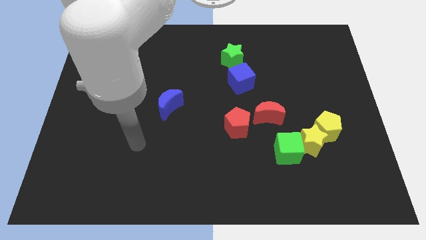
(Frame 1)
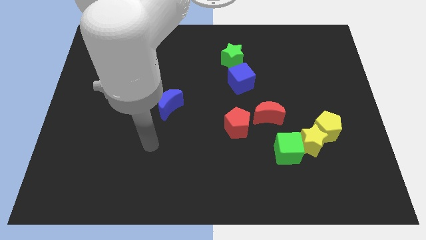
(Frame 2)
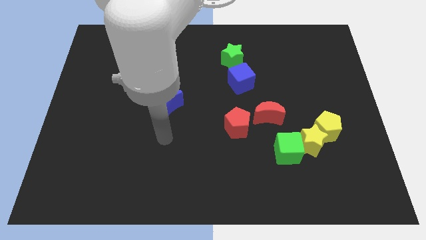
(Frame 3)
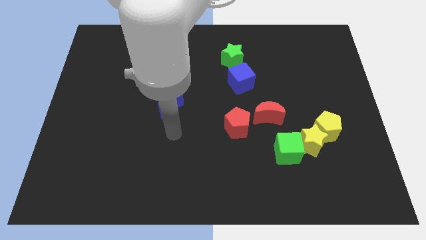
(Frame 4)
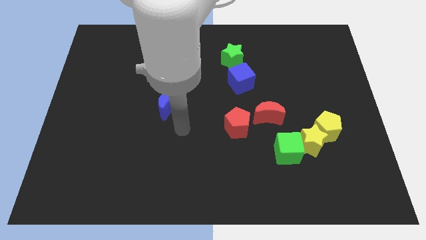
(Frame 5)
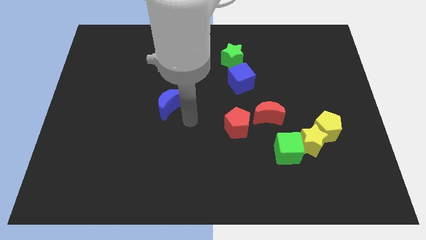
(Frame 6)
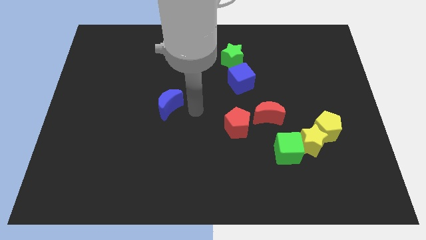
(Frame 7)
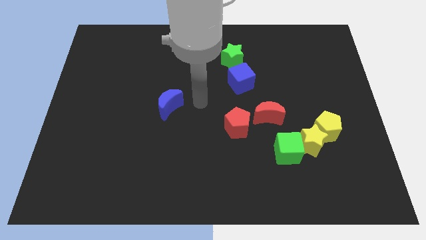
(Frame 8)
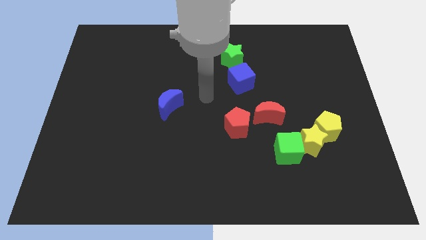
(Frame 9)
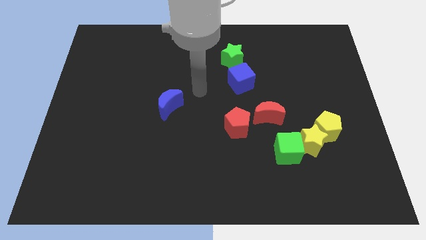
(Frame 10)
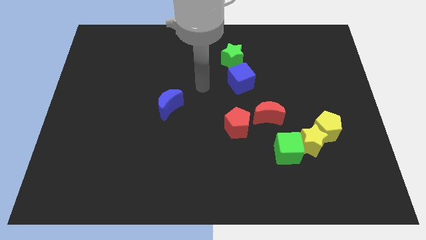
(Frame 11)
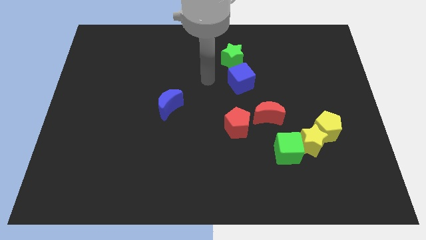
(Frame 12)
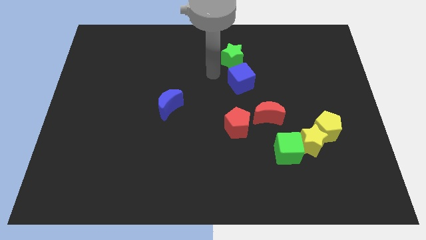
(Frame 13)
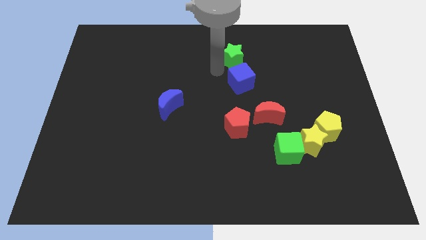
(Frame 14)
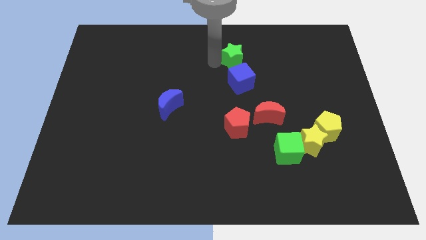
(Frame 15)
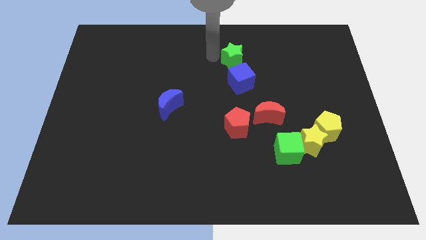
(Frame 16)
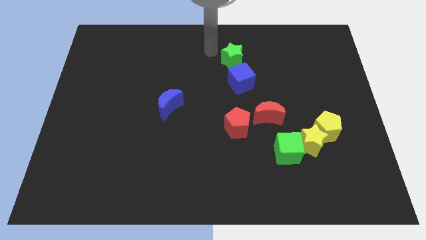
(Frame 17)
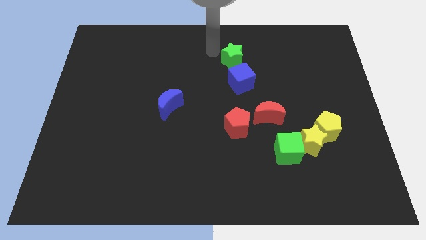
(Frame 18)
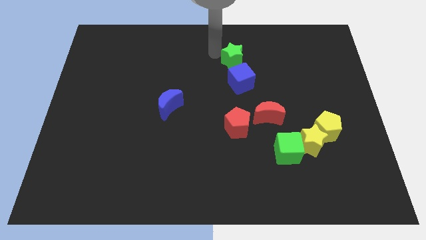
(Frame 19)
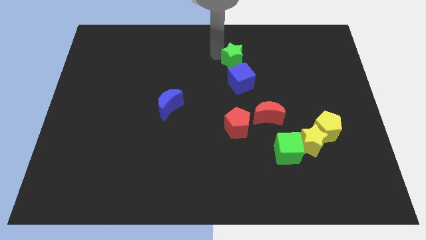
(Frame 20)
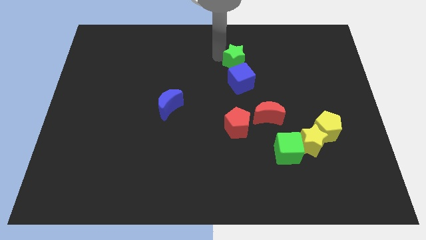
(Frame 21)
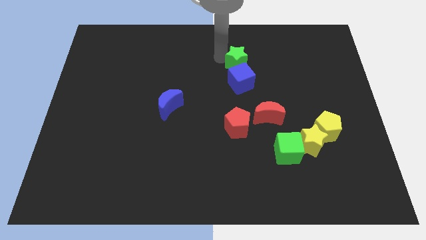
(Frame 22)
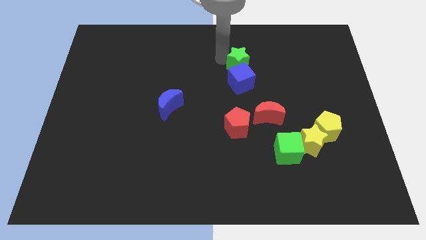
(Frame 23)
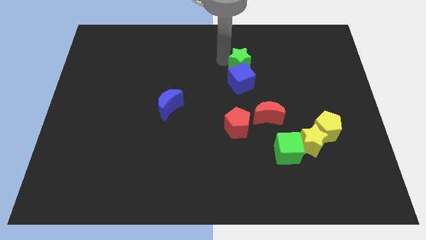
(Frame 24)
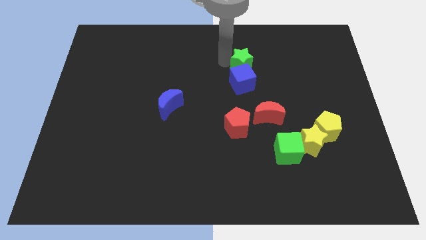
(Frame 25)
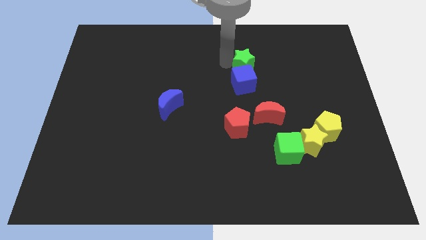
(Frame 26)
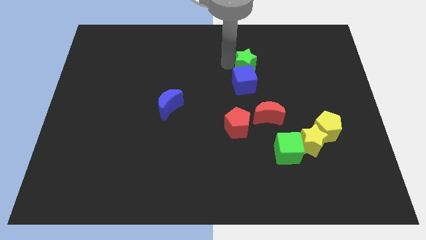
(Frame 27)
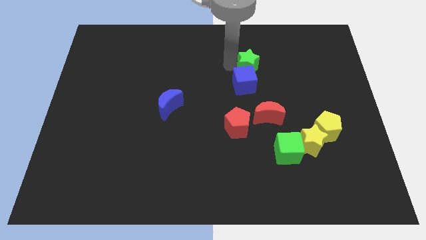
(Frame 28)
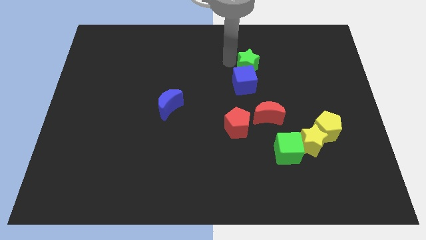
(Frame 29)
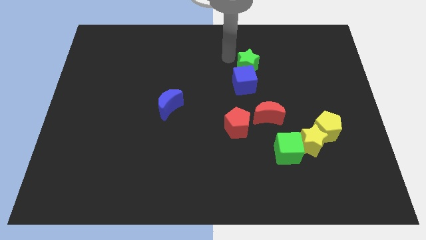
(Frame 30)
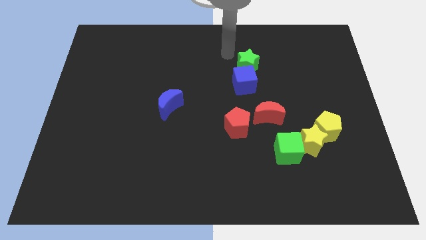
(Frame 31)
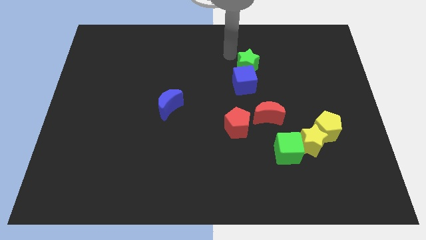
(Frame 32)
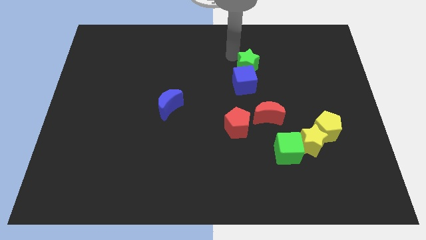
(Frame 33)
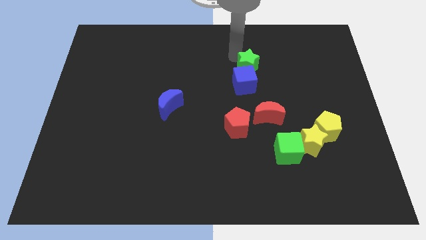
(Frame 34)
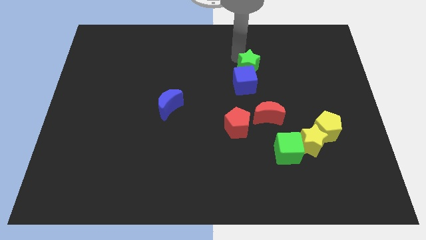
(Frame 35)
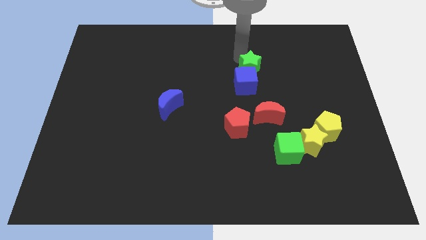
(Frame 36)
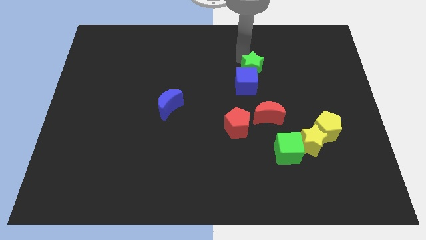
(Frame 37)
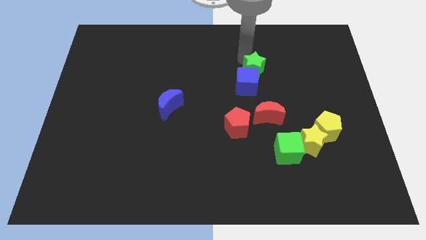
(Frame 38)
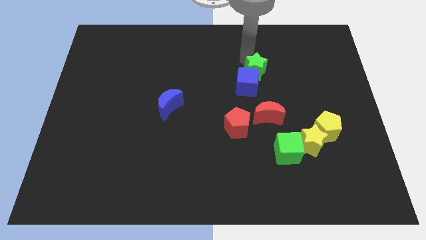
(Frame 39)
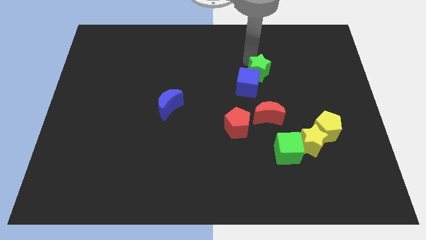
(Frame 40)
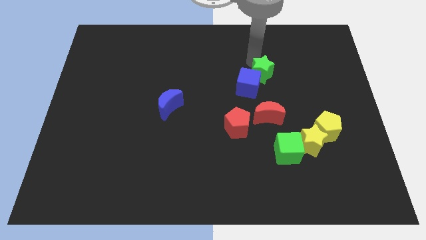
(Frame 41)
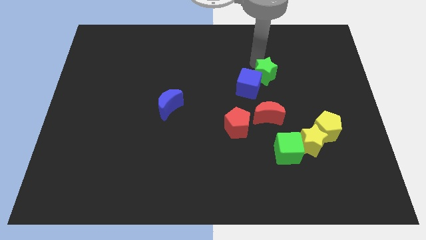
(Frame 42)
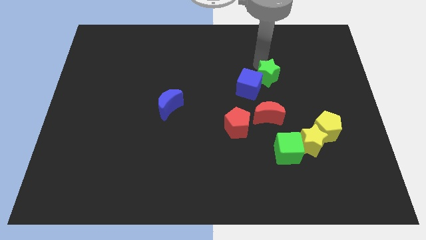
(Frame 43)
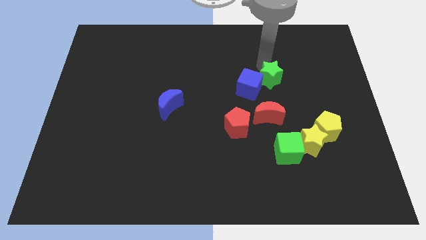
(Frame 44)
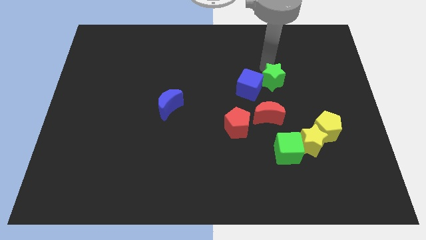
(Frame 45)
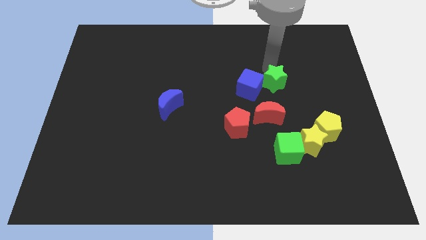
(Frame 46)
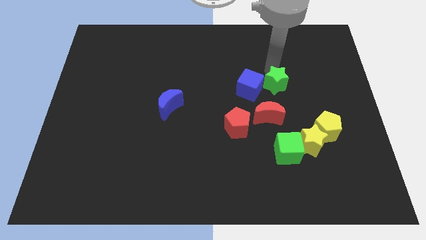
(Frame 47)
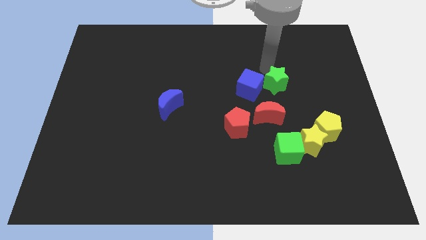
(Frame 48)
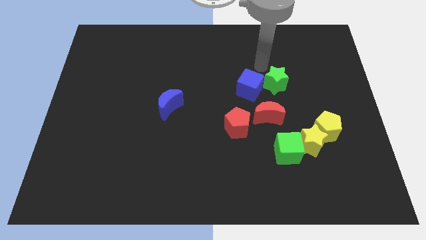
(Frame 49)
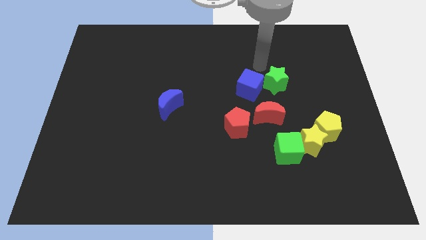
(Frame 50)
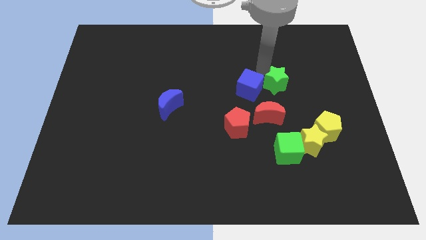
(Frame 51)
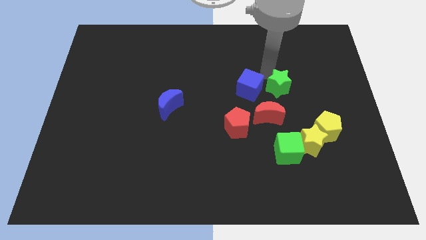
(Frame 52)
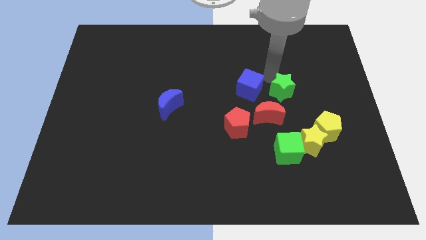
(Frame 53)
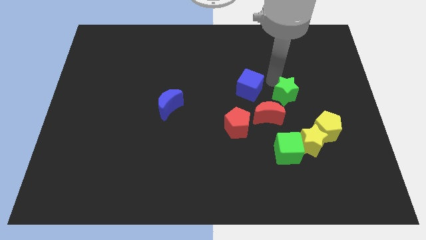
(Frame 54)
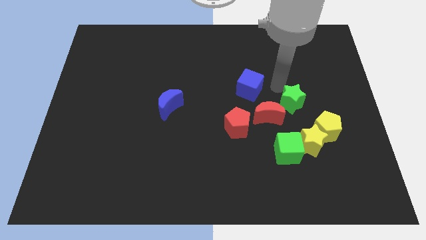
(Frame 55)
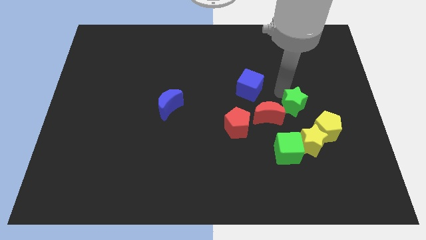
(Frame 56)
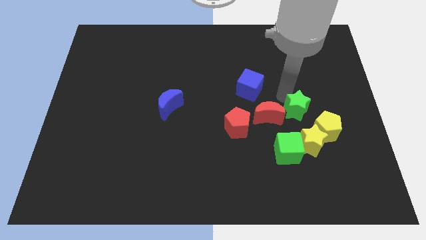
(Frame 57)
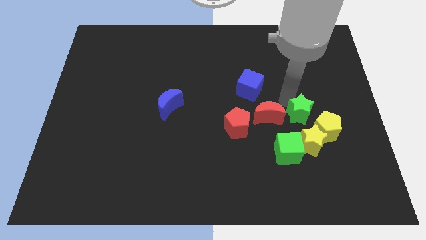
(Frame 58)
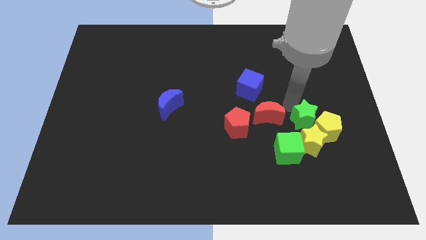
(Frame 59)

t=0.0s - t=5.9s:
move the green star towards the yellow pentagon

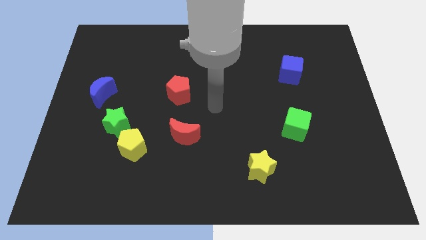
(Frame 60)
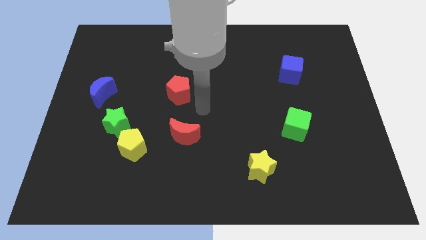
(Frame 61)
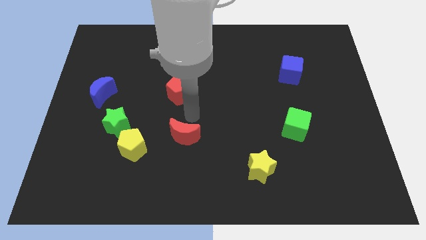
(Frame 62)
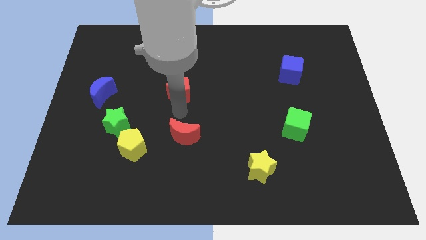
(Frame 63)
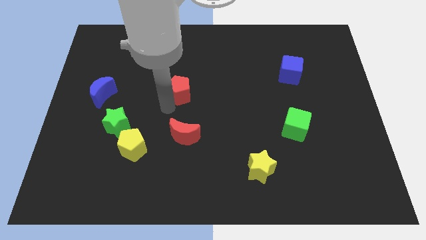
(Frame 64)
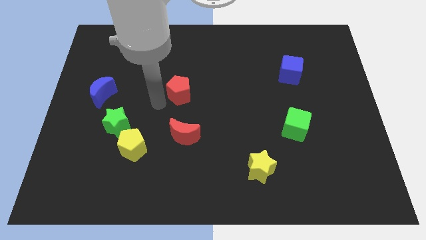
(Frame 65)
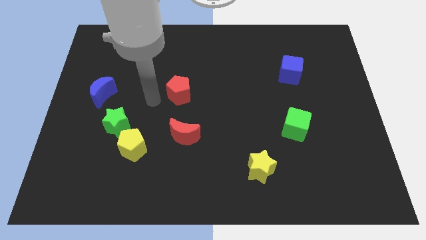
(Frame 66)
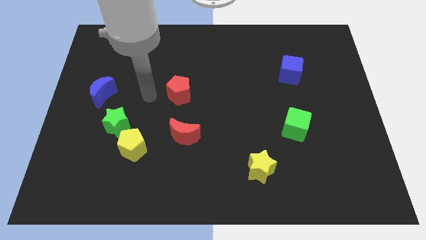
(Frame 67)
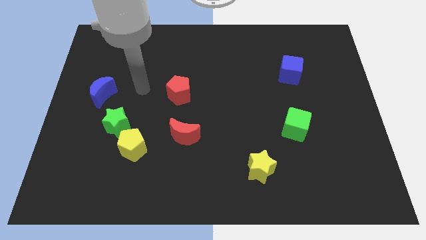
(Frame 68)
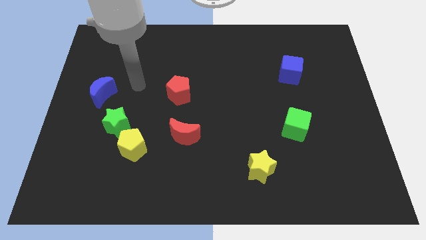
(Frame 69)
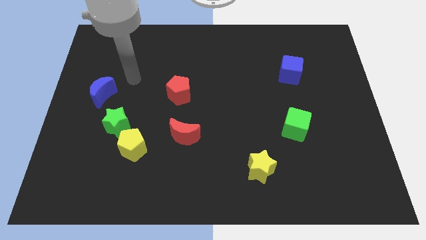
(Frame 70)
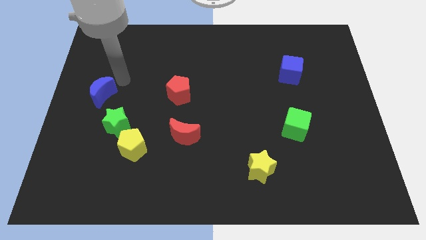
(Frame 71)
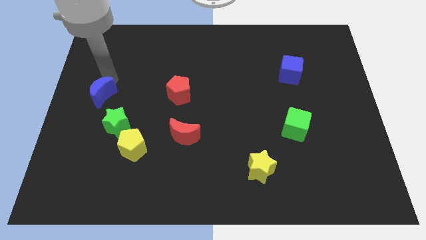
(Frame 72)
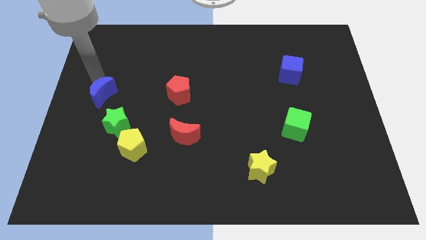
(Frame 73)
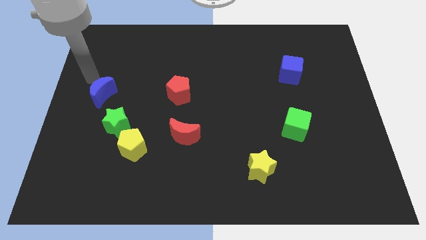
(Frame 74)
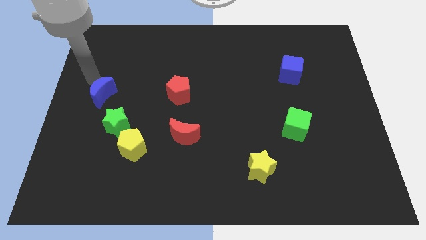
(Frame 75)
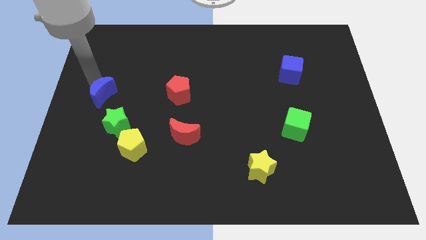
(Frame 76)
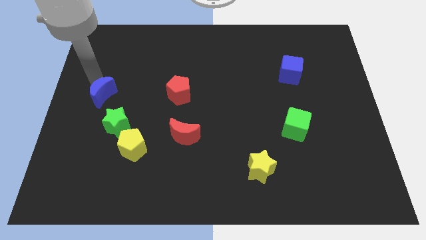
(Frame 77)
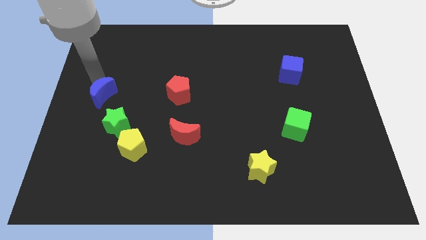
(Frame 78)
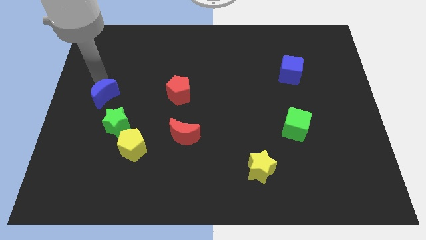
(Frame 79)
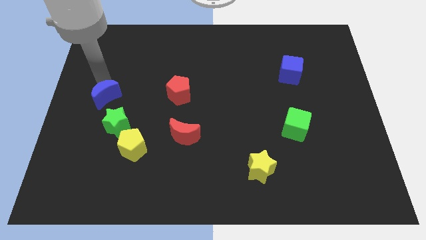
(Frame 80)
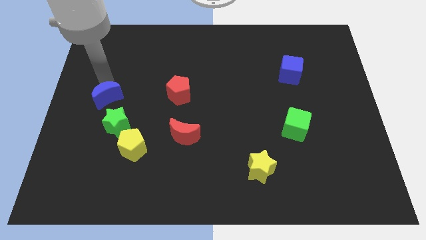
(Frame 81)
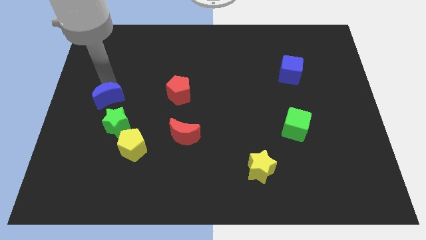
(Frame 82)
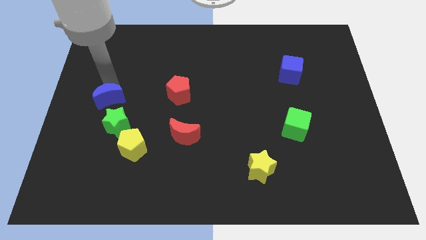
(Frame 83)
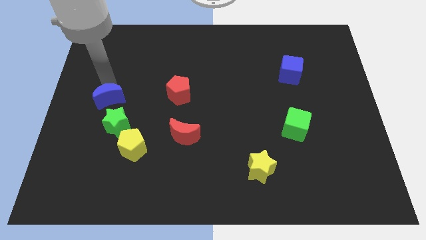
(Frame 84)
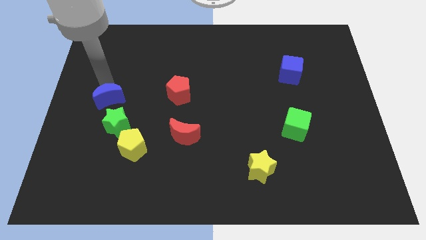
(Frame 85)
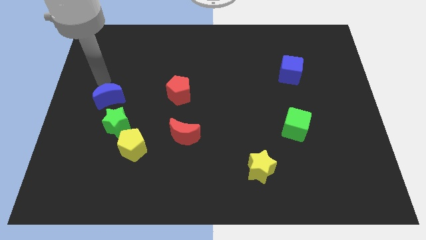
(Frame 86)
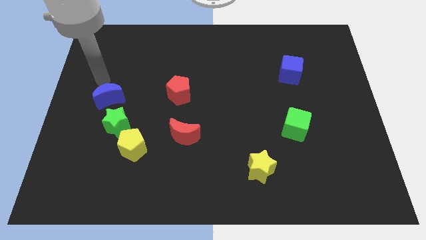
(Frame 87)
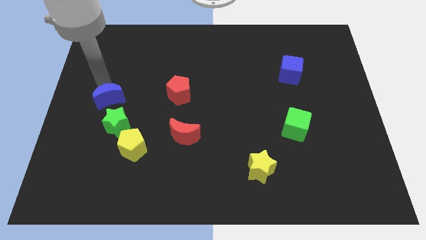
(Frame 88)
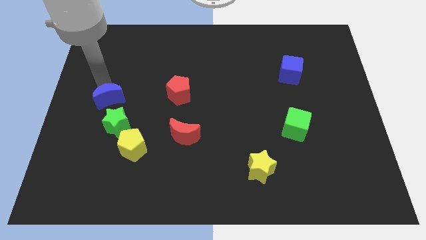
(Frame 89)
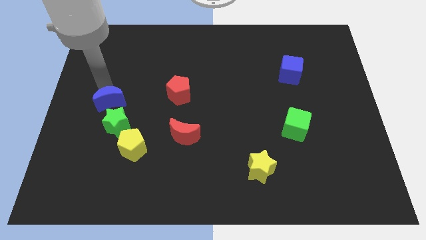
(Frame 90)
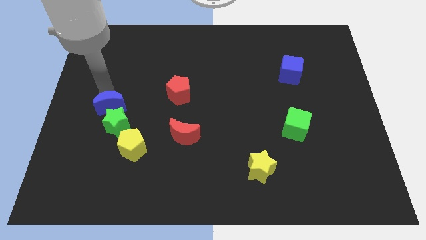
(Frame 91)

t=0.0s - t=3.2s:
move the blue moon to the green star
